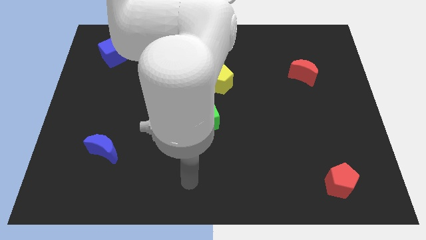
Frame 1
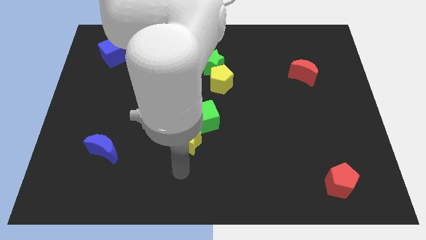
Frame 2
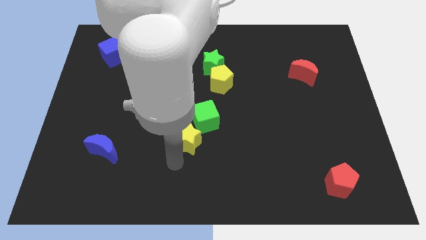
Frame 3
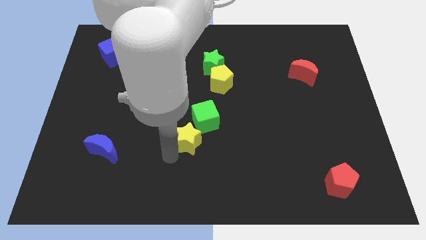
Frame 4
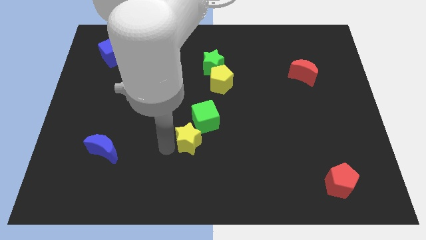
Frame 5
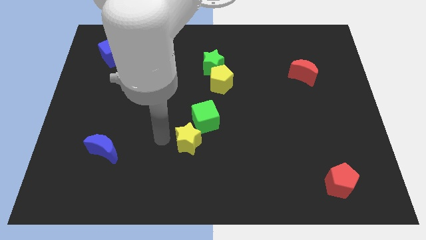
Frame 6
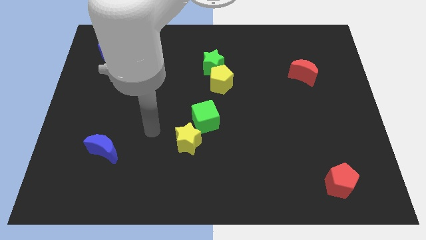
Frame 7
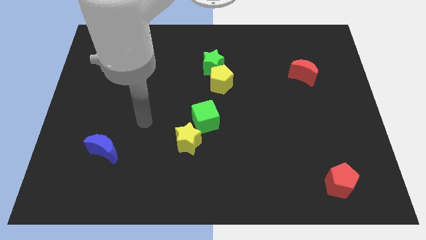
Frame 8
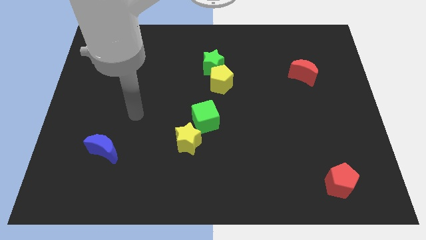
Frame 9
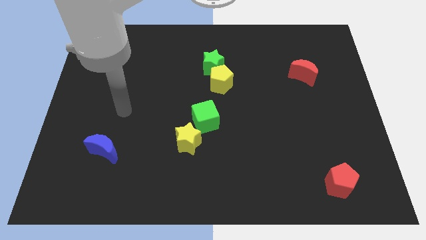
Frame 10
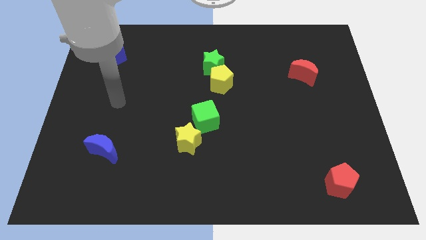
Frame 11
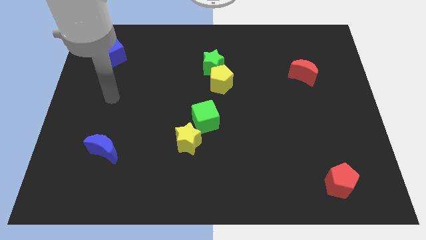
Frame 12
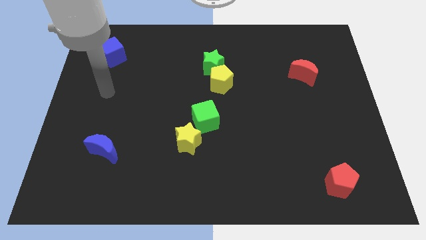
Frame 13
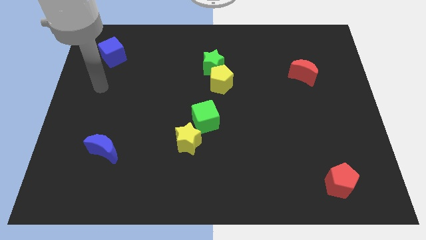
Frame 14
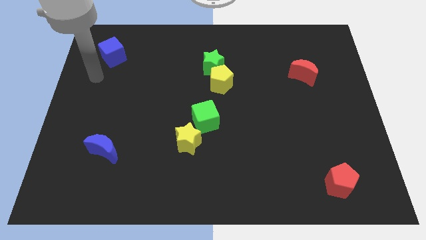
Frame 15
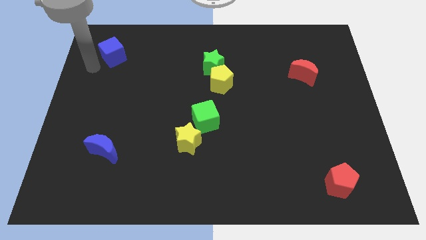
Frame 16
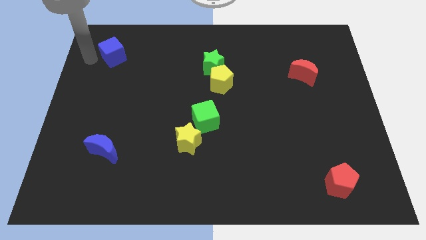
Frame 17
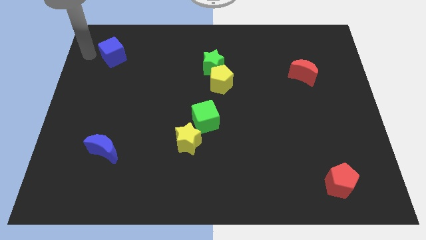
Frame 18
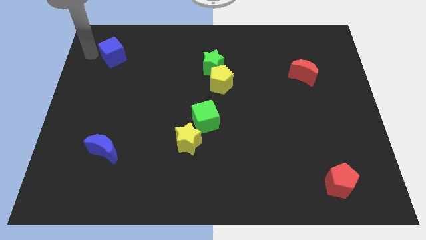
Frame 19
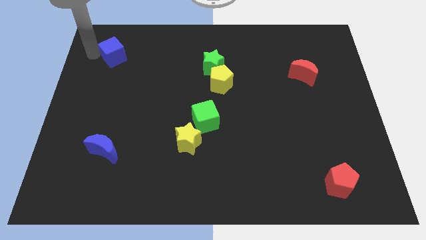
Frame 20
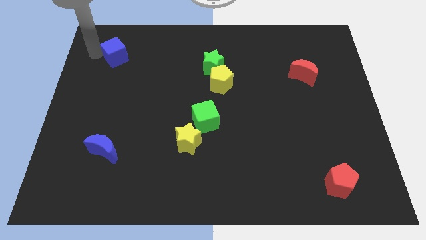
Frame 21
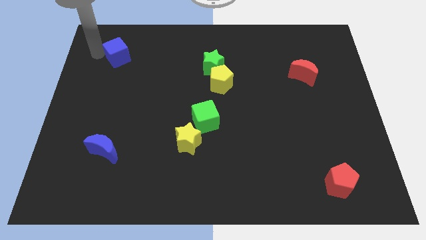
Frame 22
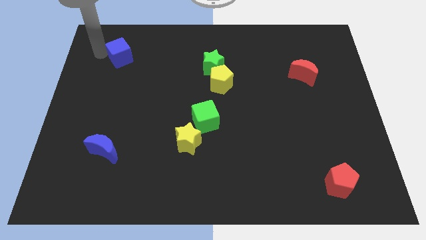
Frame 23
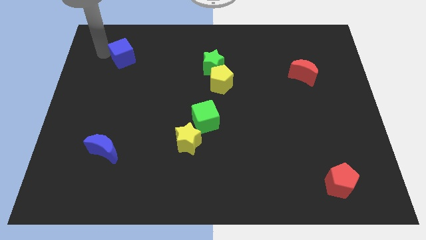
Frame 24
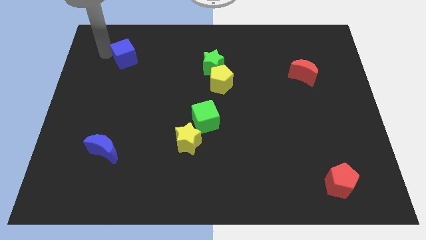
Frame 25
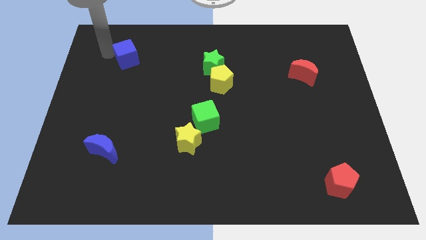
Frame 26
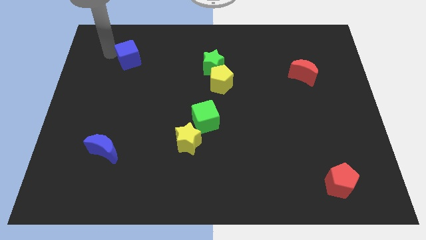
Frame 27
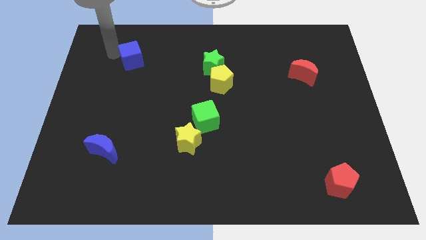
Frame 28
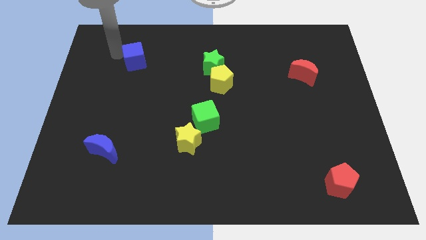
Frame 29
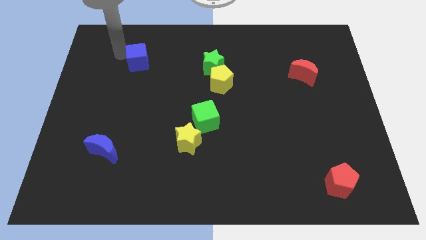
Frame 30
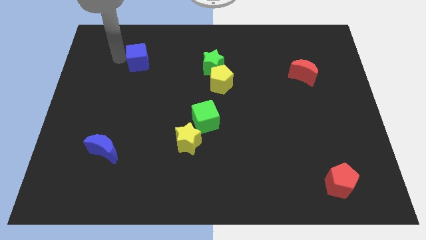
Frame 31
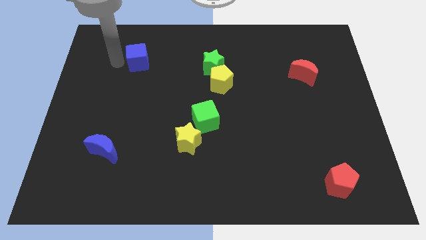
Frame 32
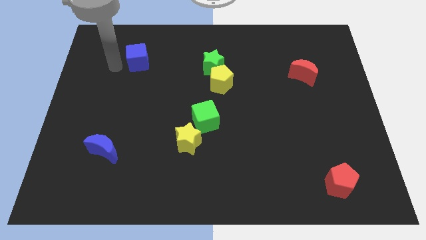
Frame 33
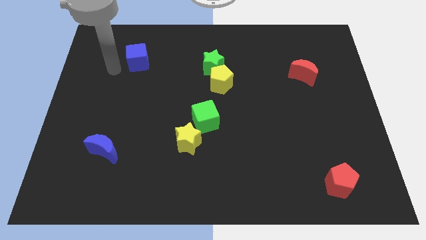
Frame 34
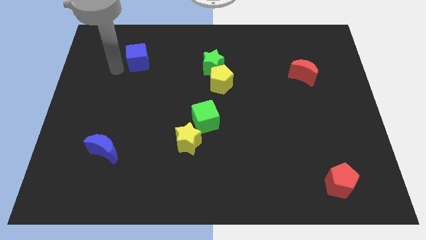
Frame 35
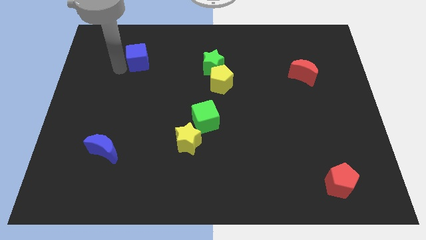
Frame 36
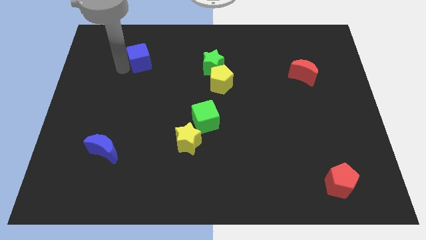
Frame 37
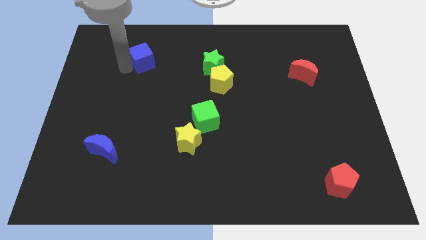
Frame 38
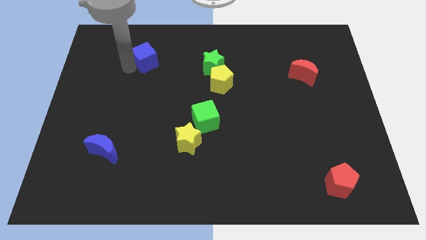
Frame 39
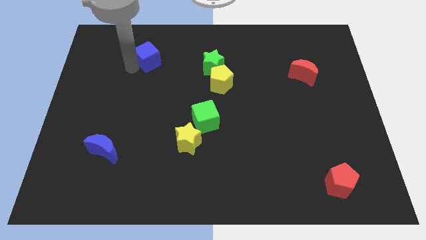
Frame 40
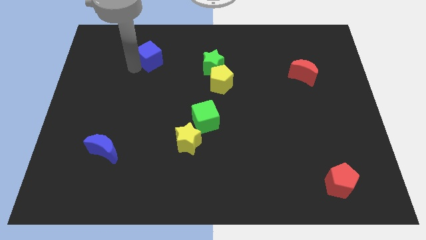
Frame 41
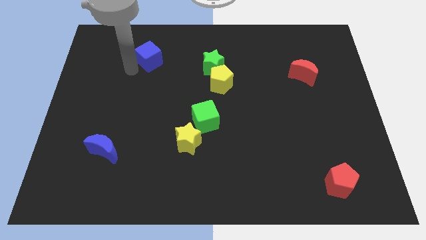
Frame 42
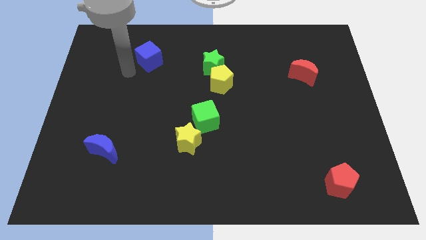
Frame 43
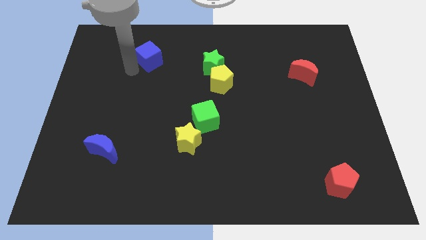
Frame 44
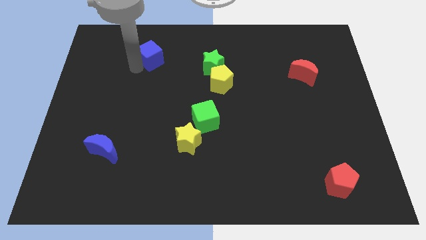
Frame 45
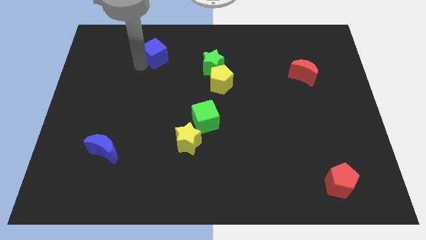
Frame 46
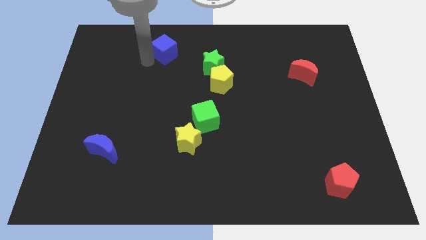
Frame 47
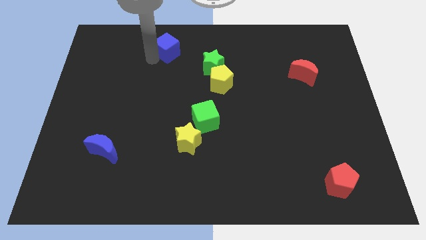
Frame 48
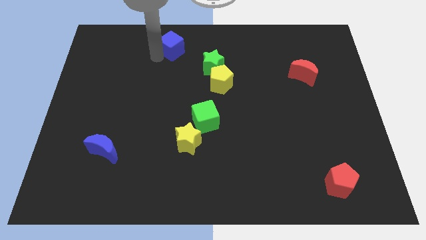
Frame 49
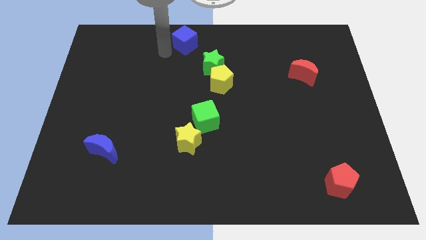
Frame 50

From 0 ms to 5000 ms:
push the blue cube to the towards your base

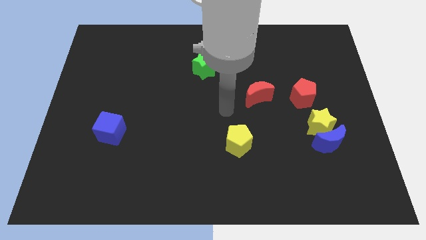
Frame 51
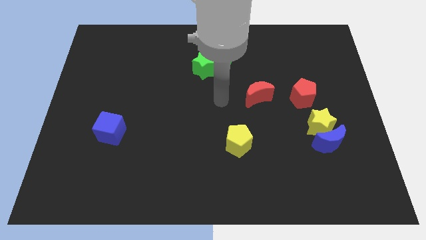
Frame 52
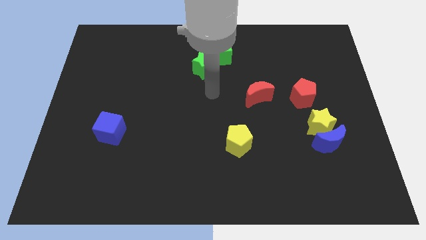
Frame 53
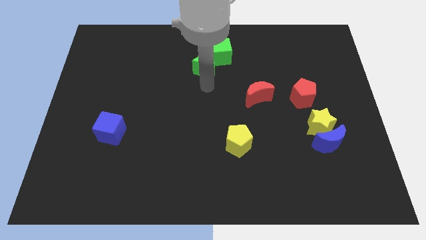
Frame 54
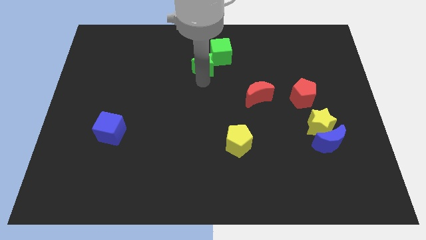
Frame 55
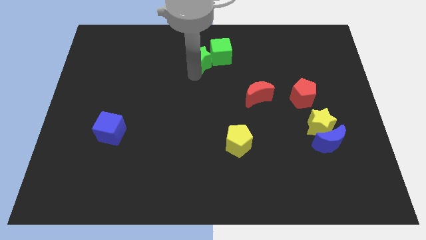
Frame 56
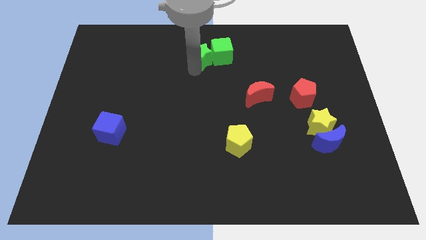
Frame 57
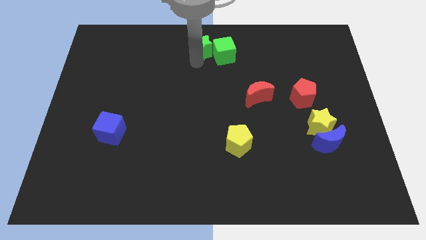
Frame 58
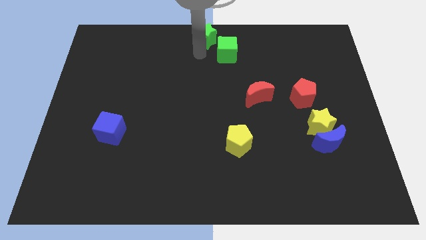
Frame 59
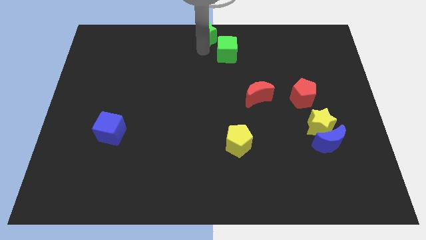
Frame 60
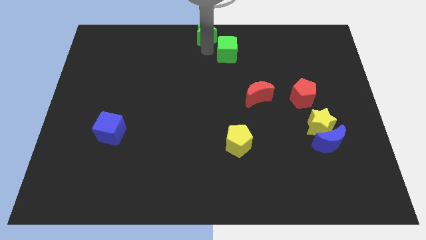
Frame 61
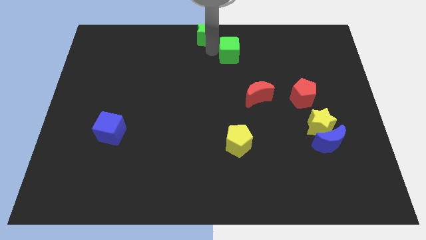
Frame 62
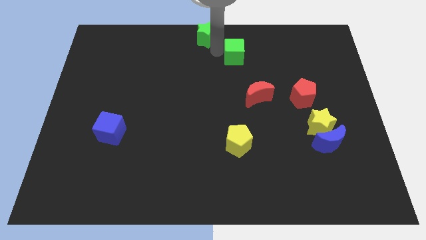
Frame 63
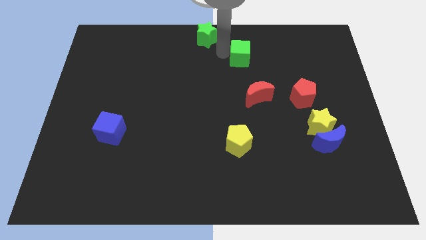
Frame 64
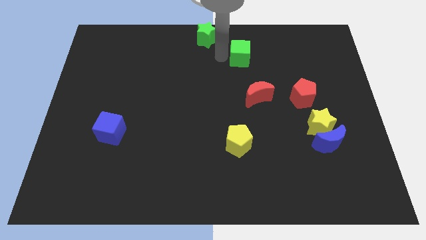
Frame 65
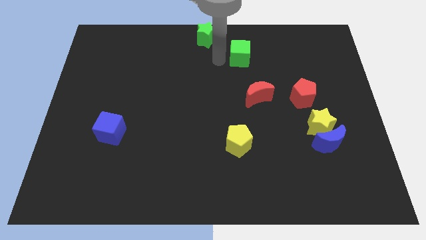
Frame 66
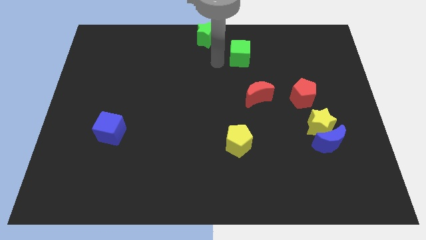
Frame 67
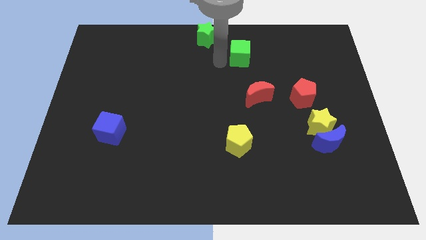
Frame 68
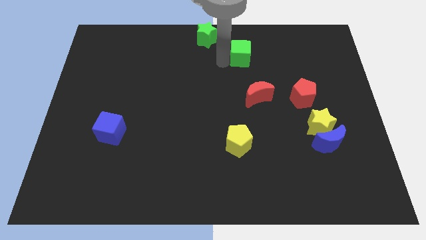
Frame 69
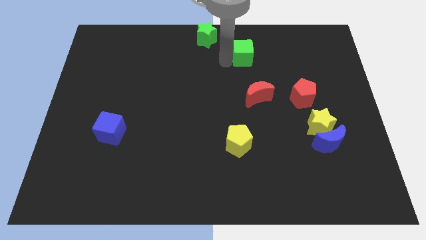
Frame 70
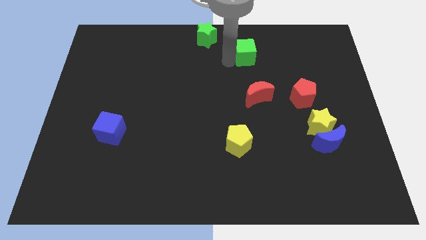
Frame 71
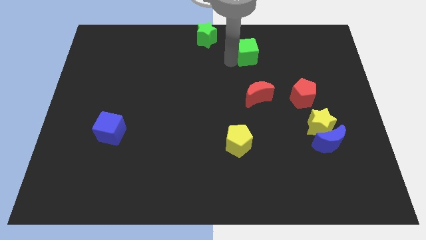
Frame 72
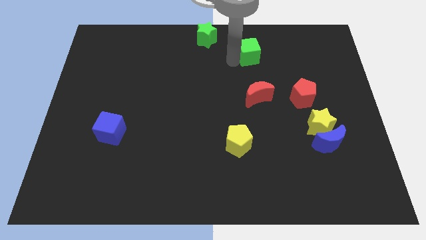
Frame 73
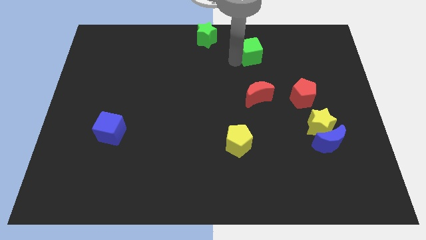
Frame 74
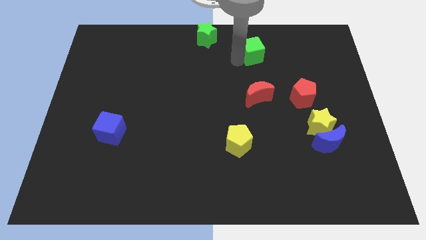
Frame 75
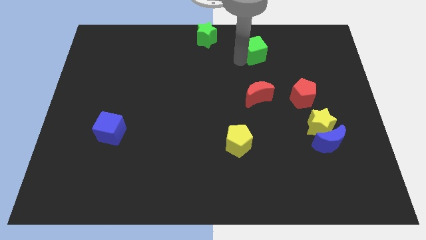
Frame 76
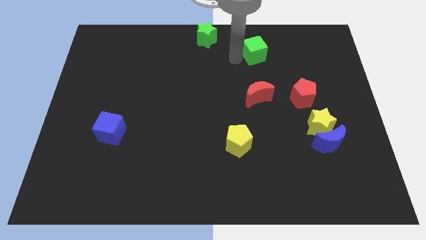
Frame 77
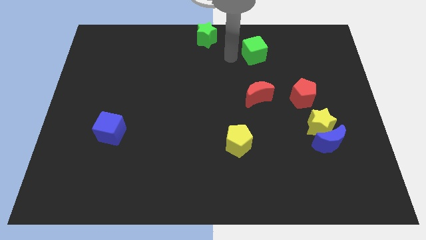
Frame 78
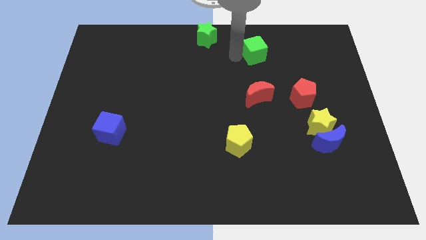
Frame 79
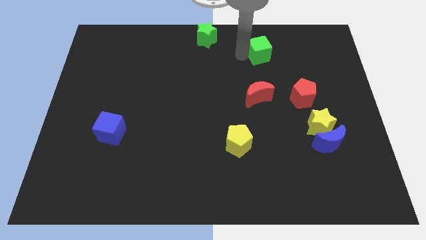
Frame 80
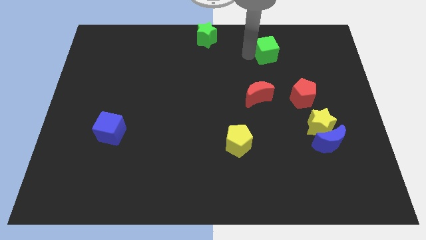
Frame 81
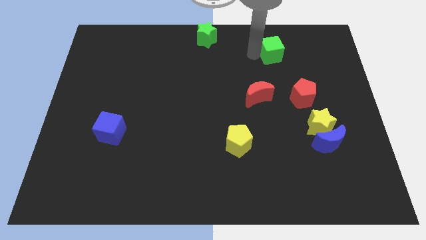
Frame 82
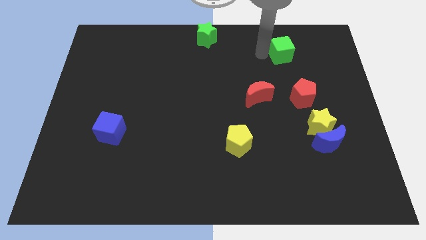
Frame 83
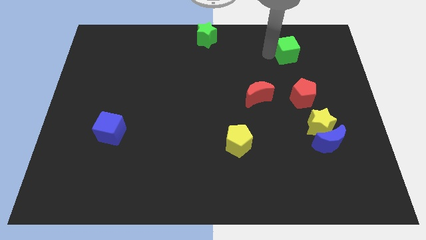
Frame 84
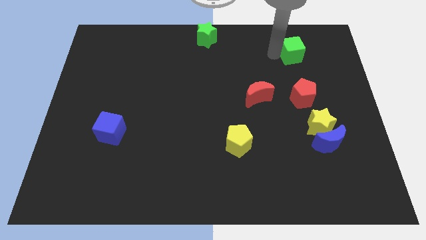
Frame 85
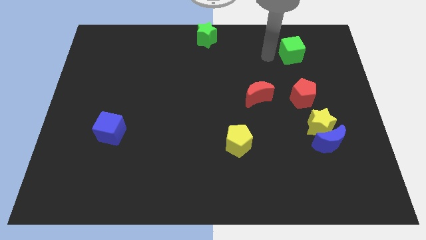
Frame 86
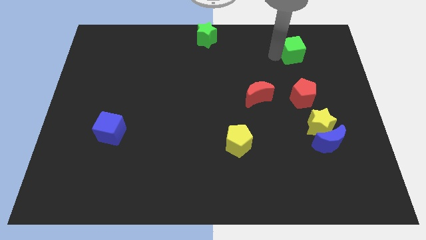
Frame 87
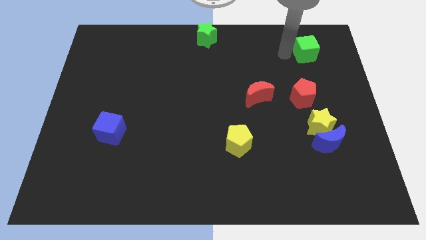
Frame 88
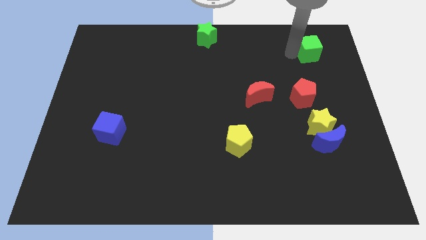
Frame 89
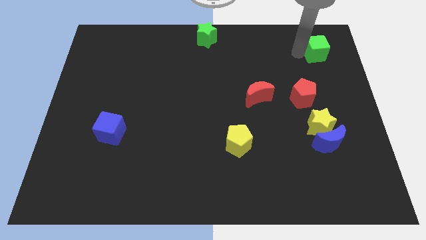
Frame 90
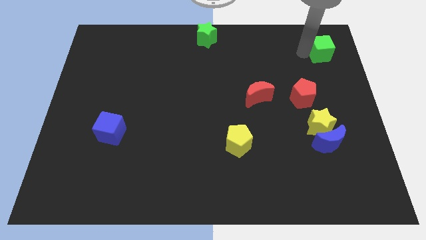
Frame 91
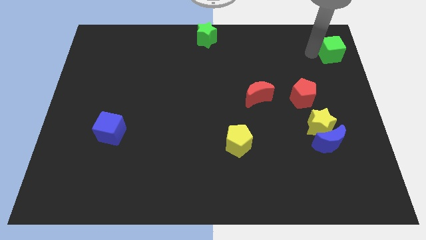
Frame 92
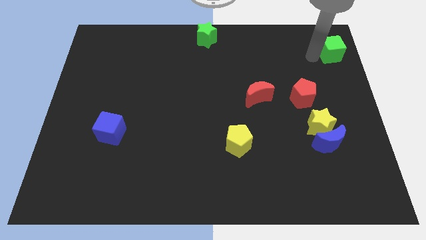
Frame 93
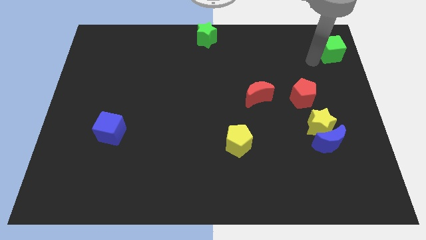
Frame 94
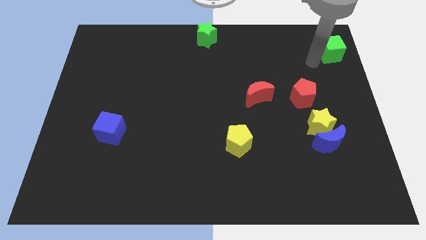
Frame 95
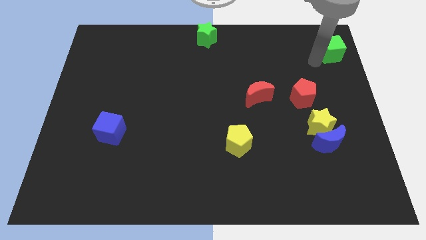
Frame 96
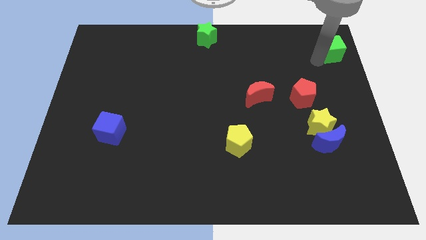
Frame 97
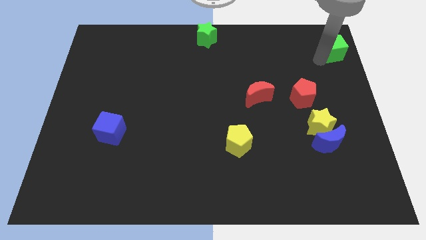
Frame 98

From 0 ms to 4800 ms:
slide the green cube to the top right of the board
